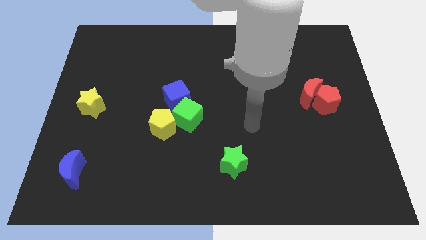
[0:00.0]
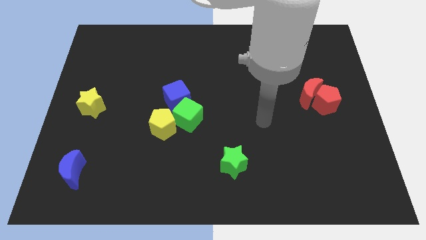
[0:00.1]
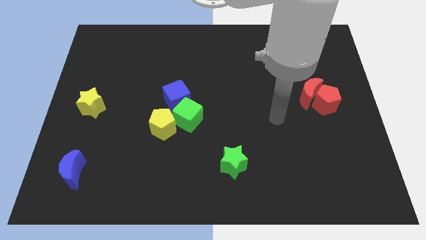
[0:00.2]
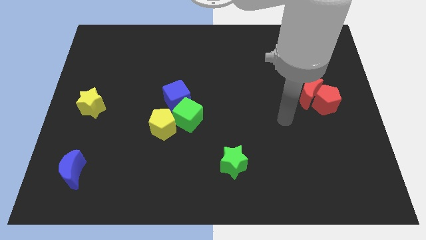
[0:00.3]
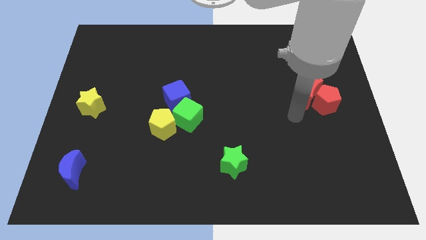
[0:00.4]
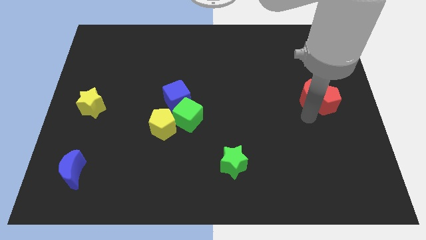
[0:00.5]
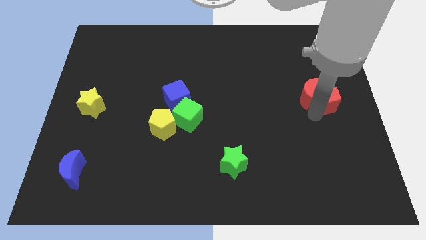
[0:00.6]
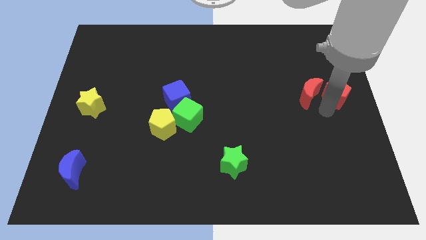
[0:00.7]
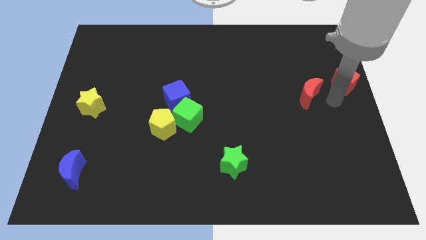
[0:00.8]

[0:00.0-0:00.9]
move the red moon away from the red pentagon

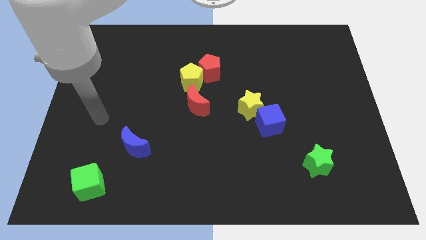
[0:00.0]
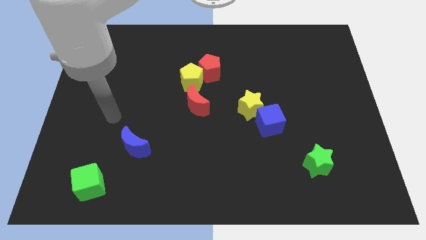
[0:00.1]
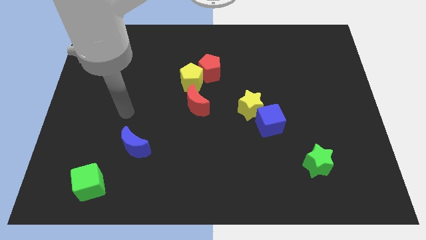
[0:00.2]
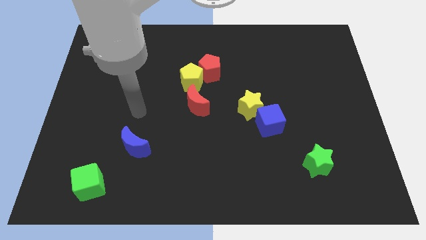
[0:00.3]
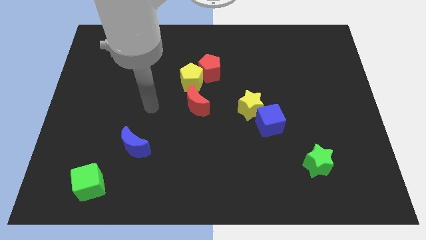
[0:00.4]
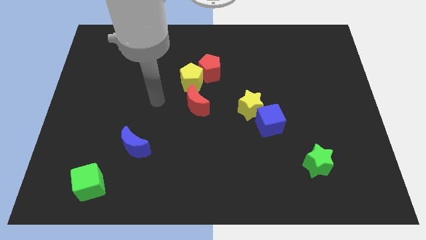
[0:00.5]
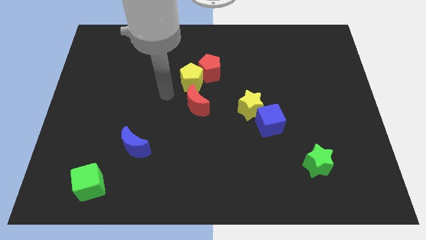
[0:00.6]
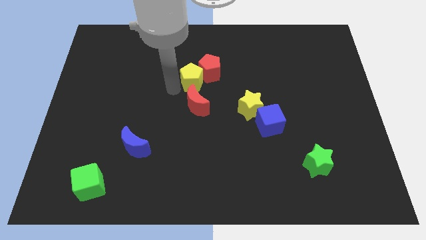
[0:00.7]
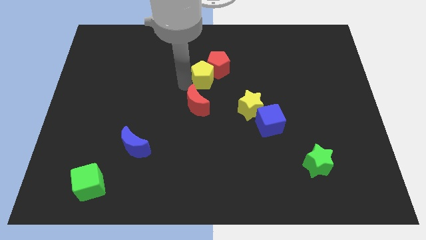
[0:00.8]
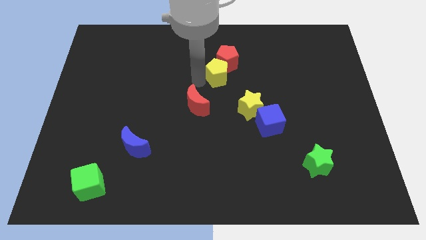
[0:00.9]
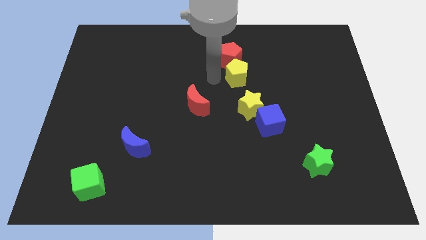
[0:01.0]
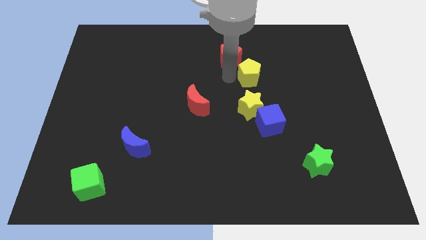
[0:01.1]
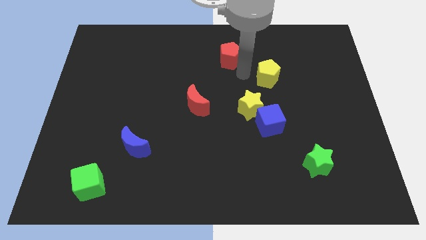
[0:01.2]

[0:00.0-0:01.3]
separate the red pentagon from the yellow pentagon

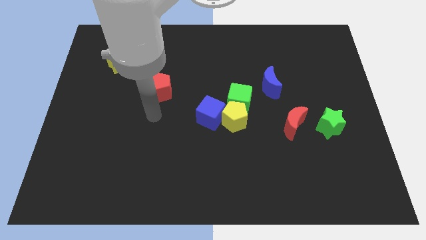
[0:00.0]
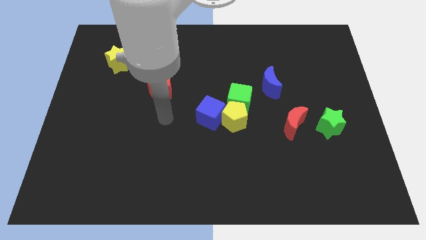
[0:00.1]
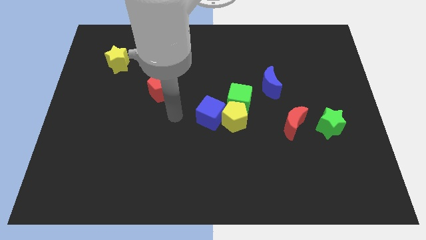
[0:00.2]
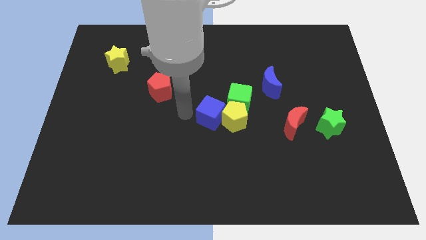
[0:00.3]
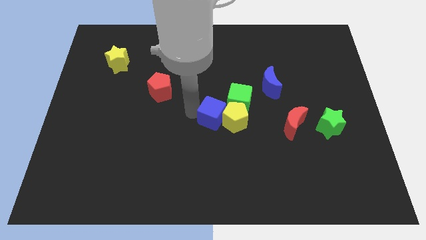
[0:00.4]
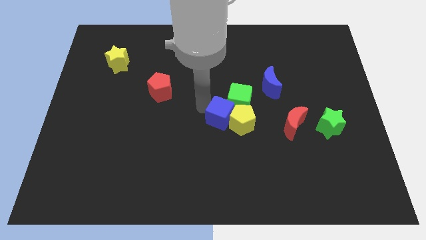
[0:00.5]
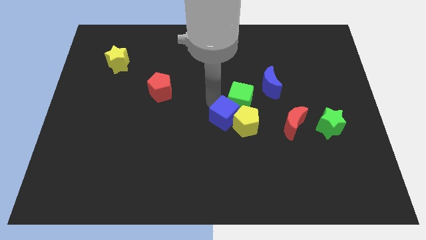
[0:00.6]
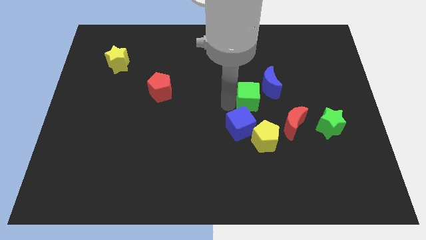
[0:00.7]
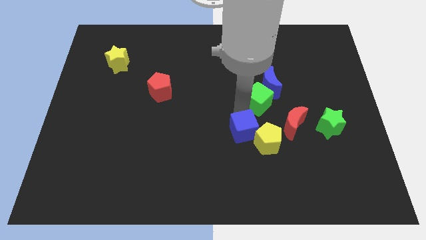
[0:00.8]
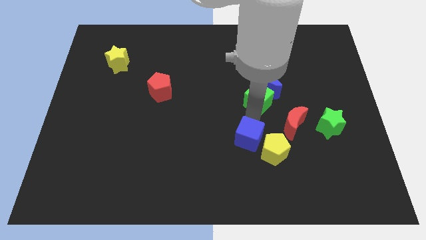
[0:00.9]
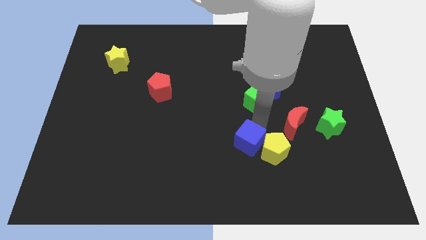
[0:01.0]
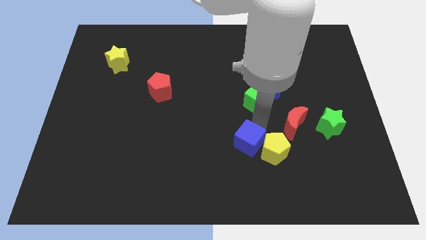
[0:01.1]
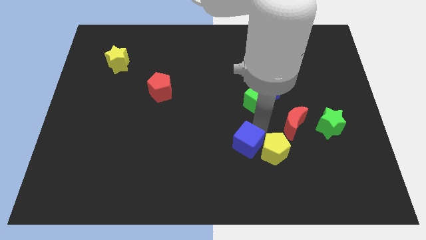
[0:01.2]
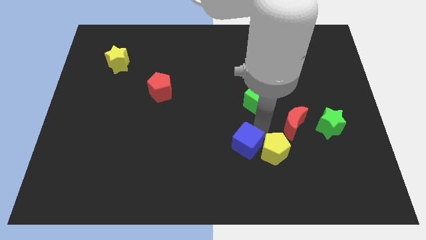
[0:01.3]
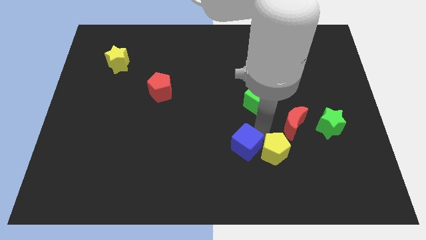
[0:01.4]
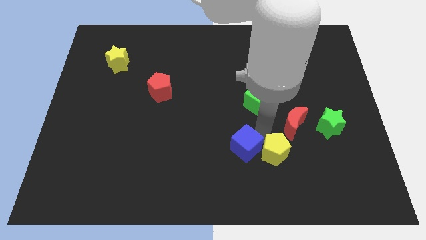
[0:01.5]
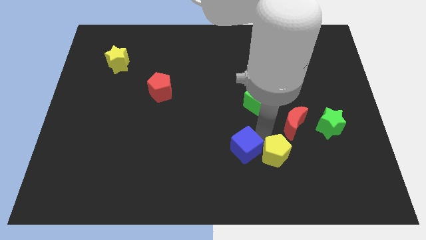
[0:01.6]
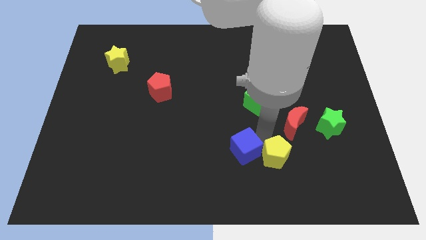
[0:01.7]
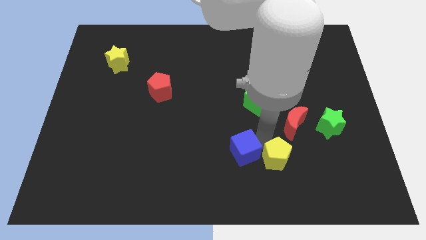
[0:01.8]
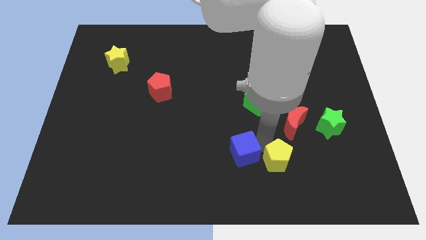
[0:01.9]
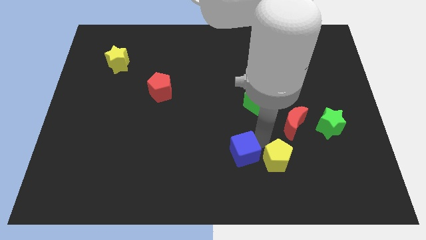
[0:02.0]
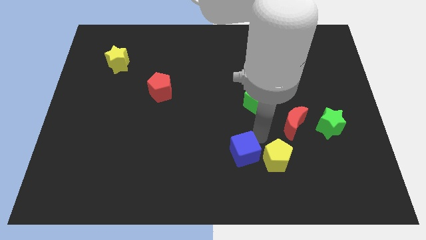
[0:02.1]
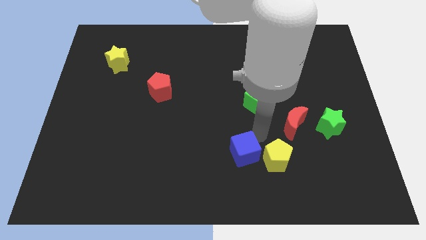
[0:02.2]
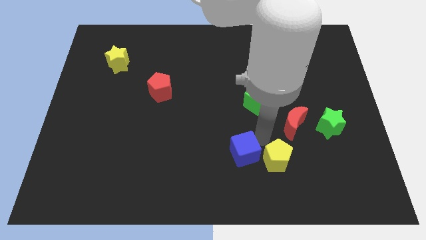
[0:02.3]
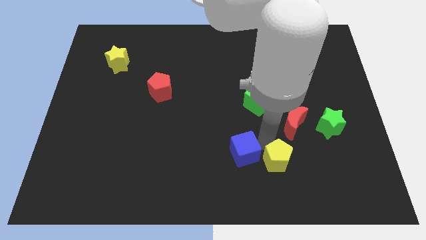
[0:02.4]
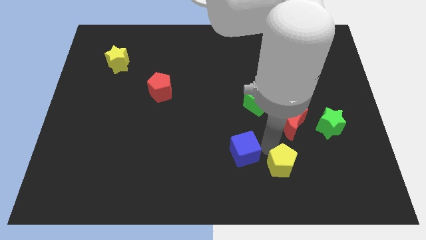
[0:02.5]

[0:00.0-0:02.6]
pull the yellow pentagon apart from the green cube and blue cube

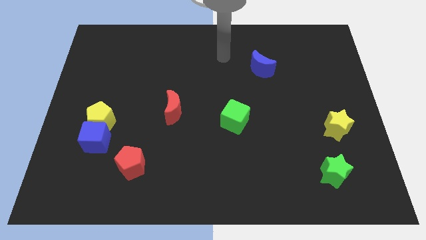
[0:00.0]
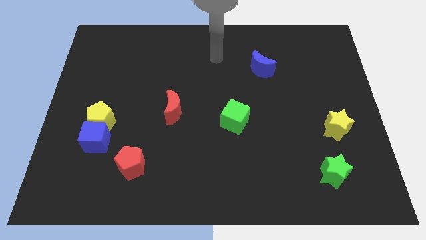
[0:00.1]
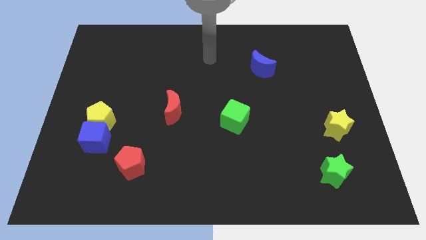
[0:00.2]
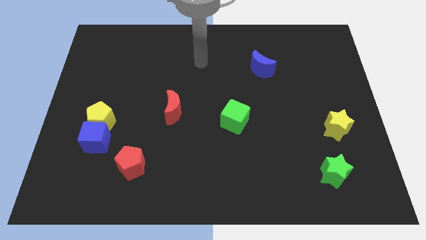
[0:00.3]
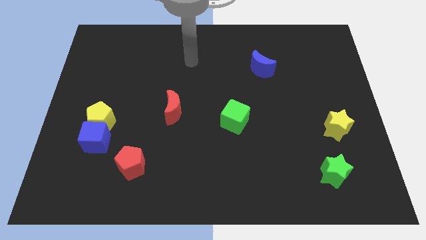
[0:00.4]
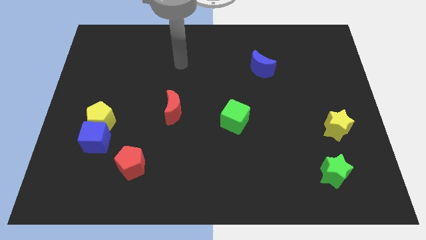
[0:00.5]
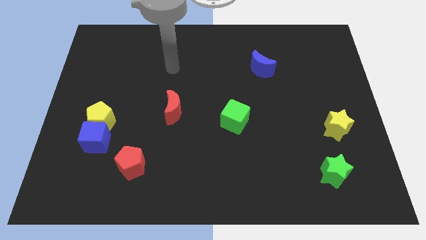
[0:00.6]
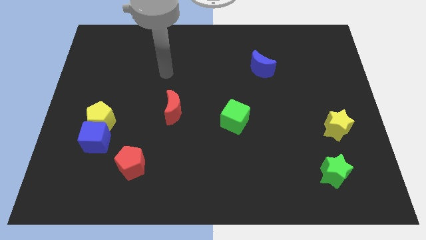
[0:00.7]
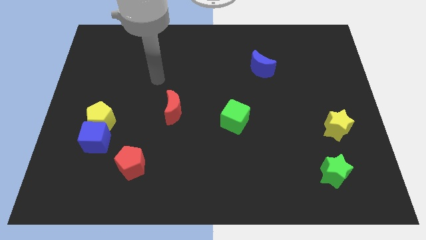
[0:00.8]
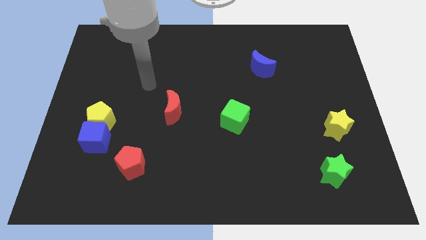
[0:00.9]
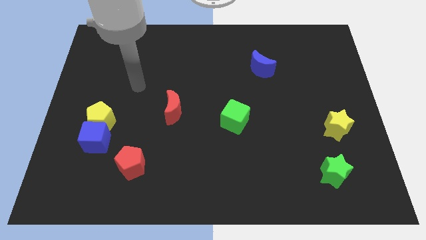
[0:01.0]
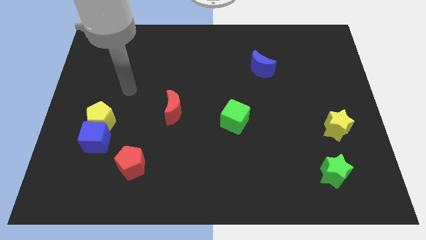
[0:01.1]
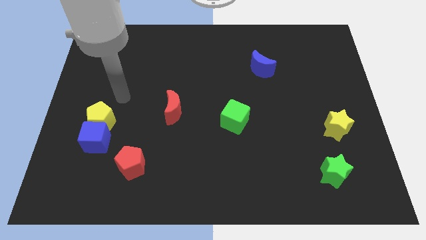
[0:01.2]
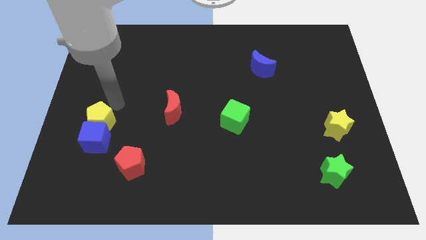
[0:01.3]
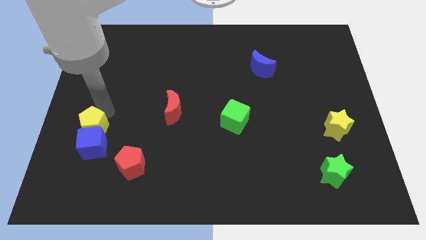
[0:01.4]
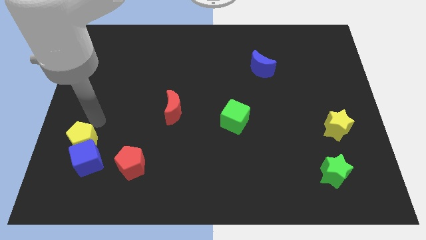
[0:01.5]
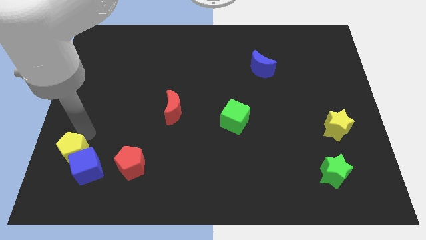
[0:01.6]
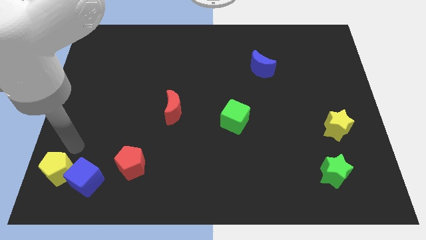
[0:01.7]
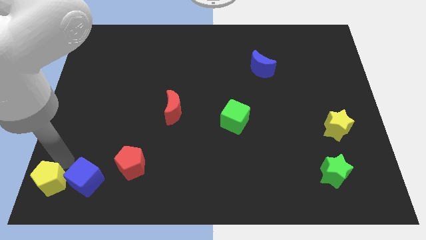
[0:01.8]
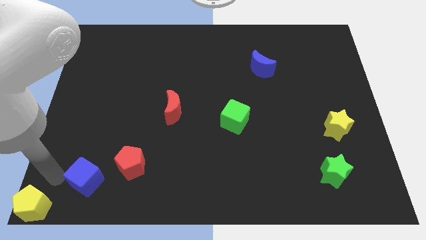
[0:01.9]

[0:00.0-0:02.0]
pull the blue cube apart from the yellow pentagon

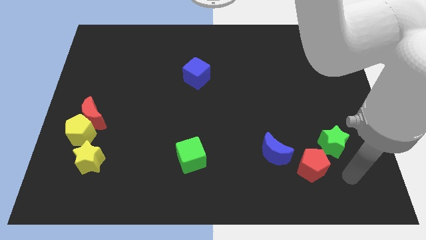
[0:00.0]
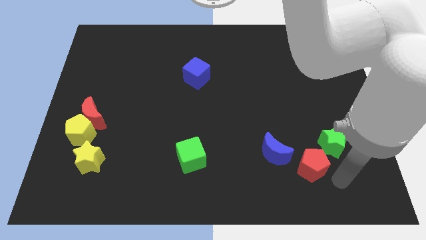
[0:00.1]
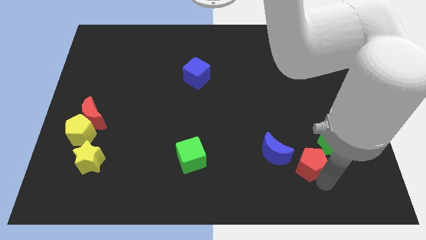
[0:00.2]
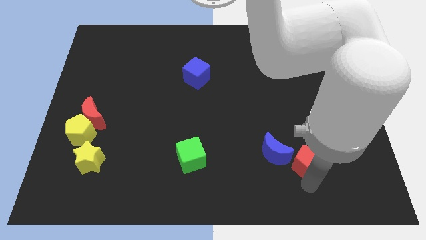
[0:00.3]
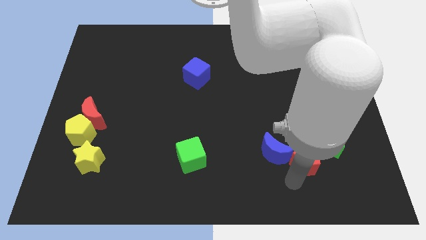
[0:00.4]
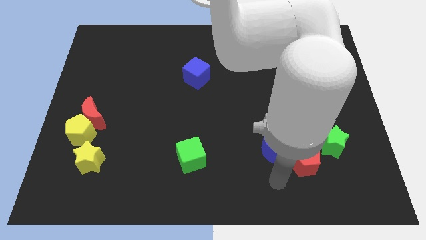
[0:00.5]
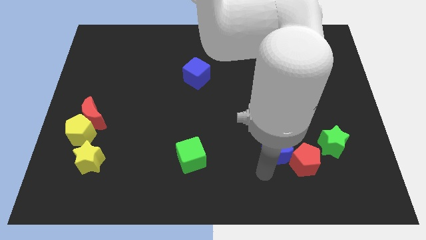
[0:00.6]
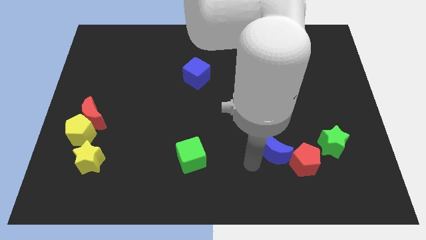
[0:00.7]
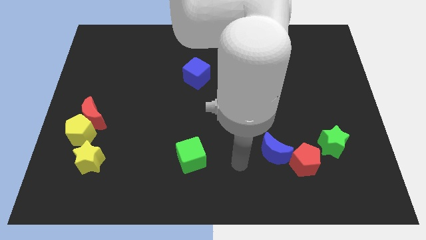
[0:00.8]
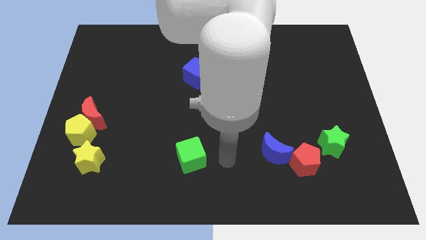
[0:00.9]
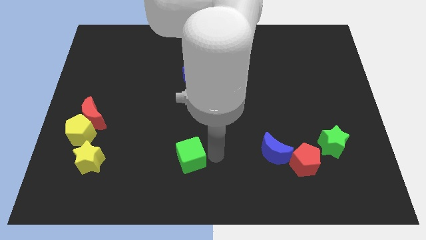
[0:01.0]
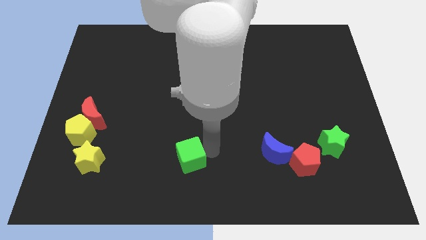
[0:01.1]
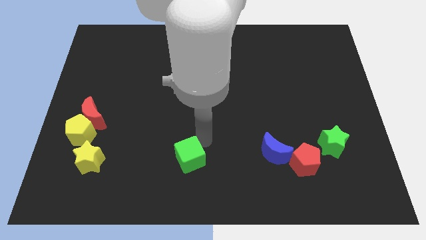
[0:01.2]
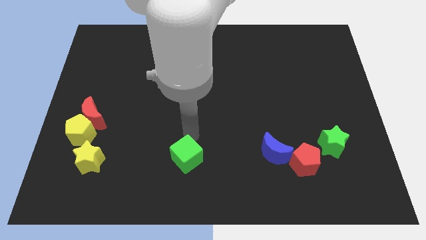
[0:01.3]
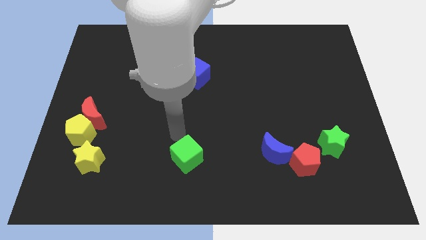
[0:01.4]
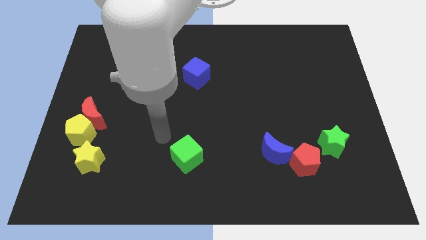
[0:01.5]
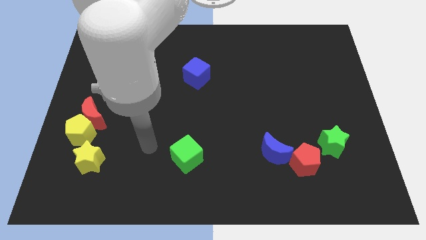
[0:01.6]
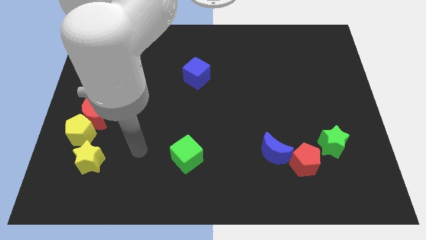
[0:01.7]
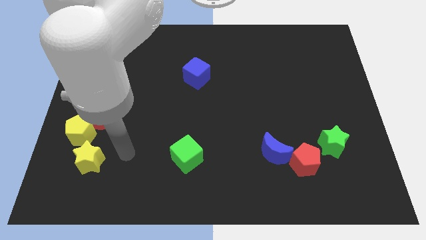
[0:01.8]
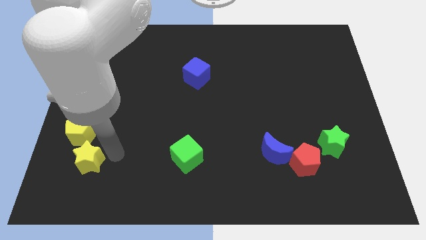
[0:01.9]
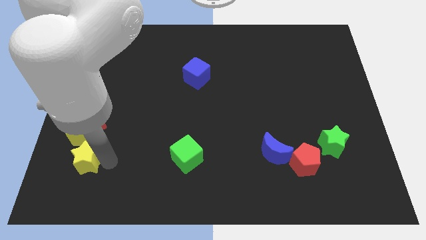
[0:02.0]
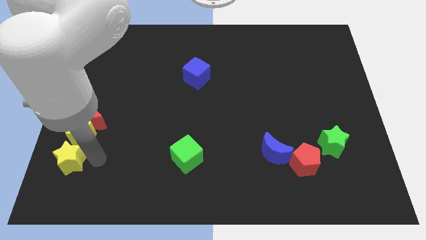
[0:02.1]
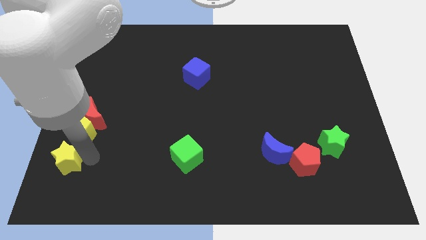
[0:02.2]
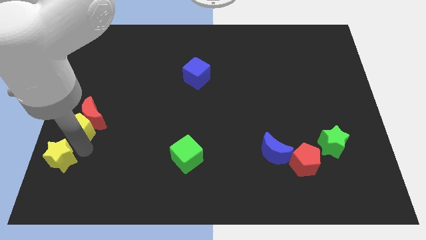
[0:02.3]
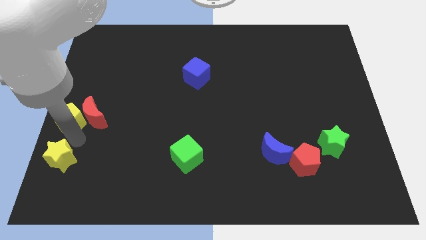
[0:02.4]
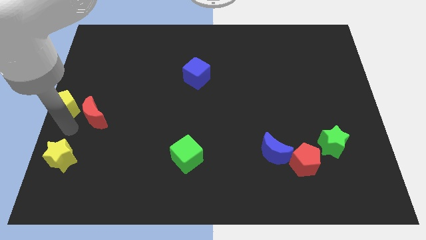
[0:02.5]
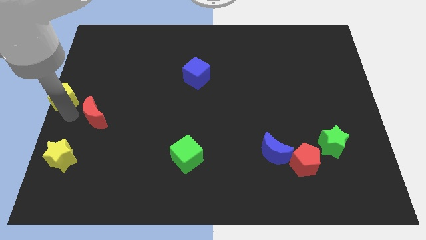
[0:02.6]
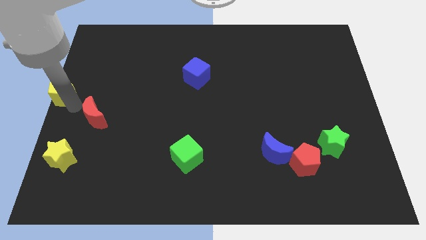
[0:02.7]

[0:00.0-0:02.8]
separate the red moon from the yellow pentagon
